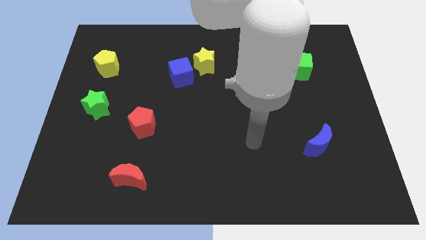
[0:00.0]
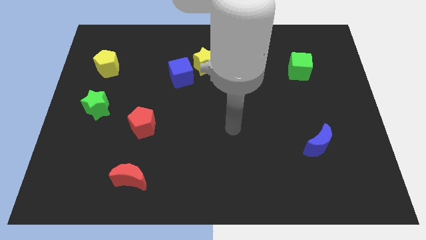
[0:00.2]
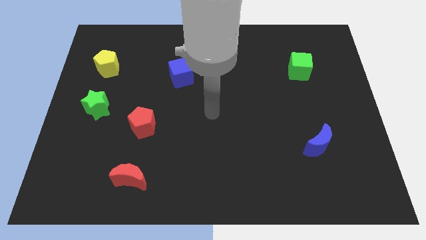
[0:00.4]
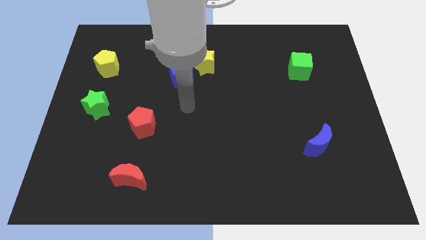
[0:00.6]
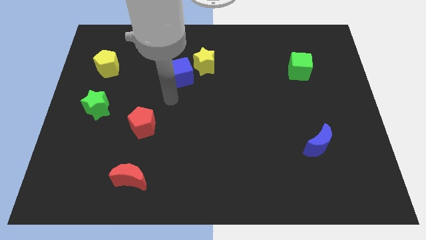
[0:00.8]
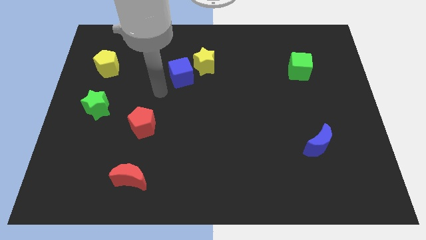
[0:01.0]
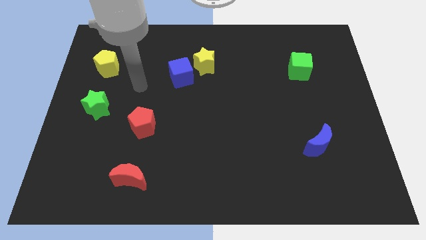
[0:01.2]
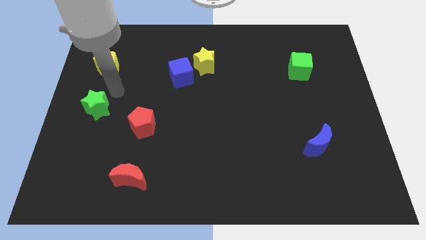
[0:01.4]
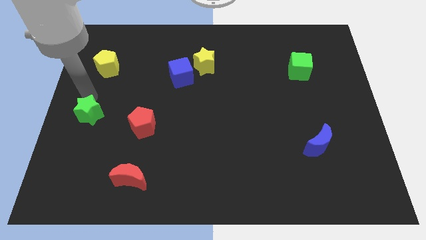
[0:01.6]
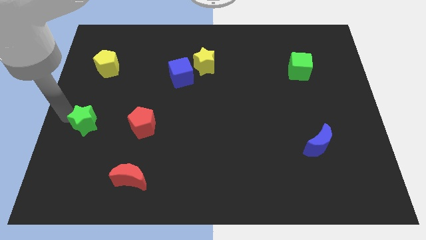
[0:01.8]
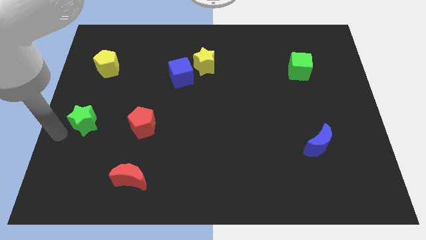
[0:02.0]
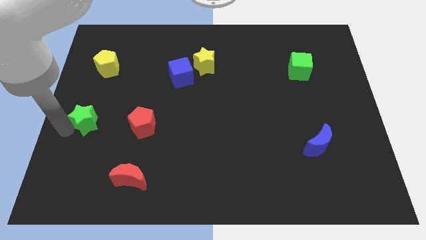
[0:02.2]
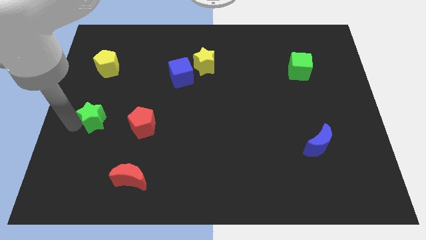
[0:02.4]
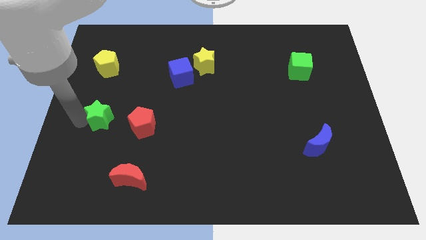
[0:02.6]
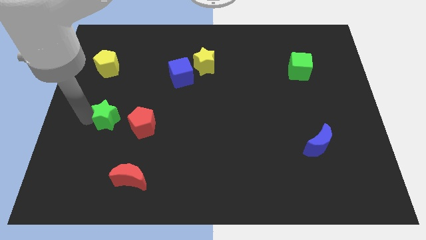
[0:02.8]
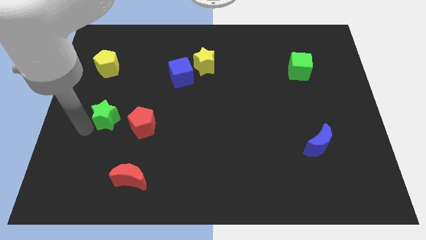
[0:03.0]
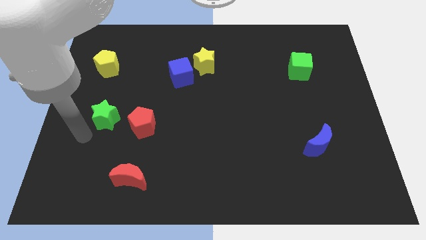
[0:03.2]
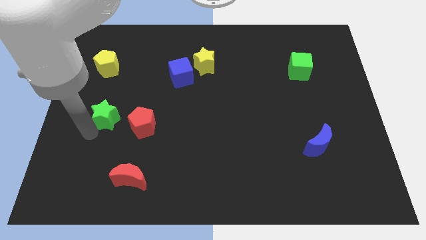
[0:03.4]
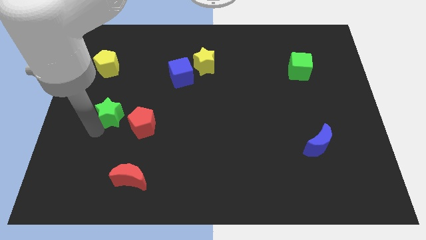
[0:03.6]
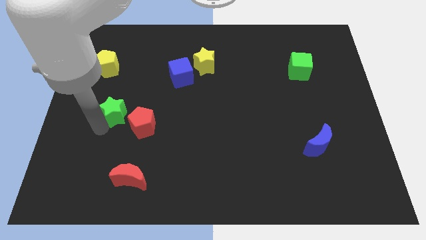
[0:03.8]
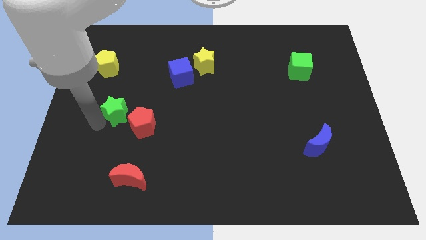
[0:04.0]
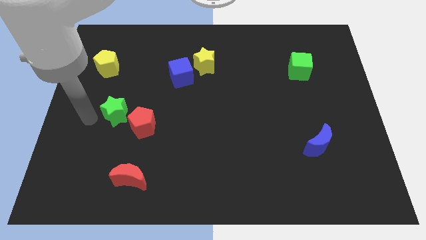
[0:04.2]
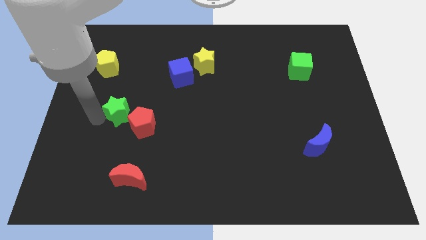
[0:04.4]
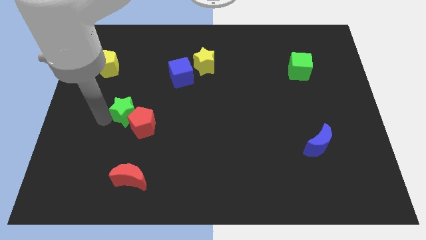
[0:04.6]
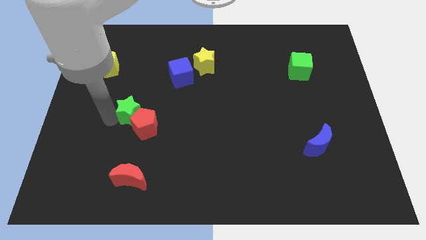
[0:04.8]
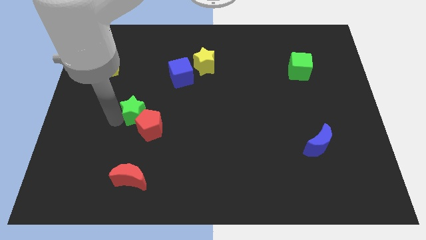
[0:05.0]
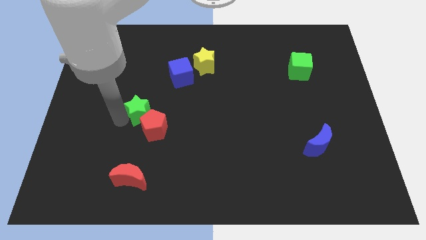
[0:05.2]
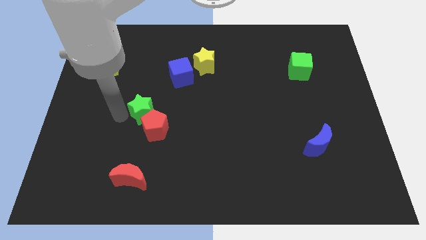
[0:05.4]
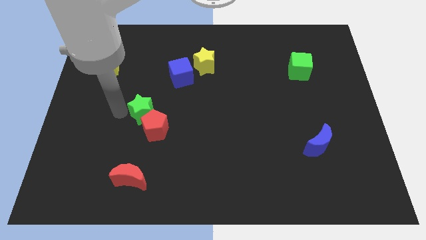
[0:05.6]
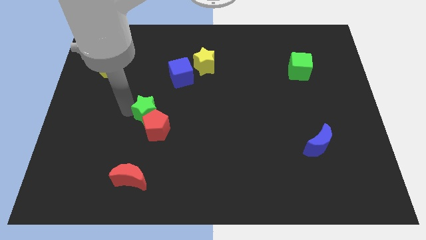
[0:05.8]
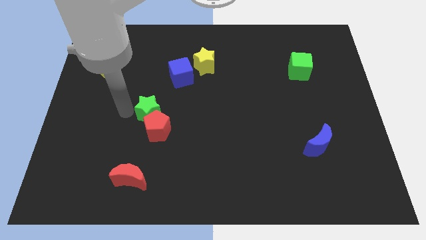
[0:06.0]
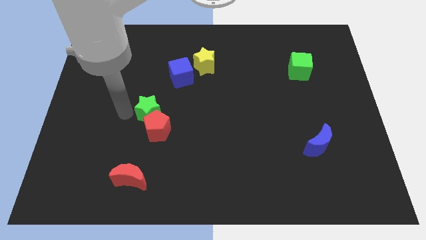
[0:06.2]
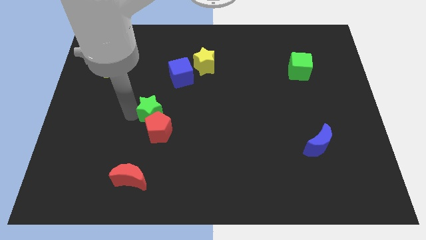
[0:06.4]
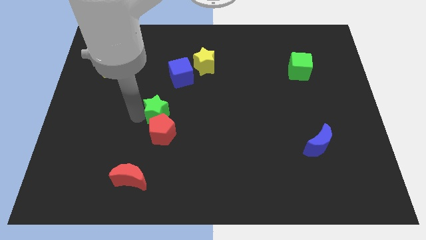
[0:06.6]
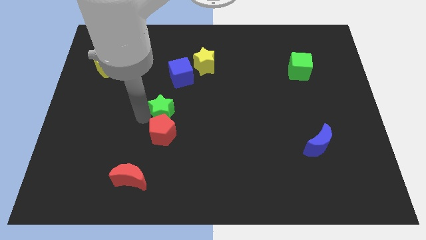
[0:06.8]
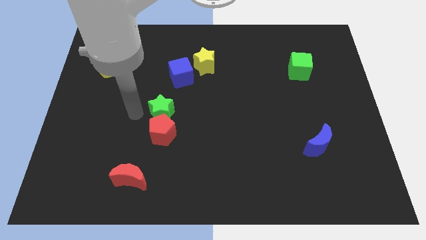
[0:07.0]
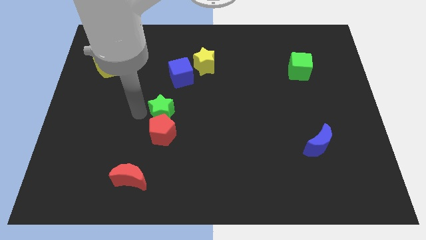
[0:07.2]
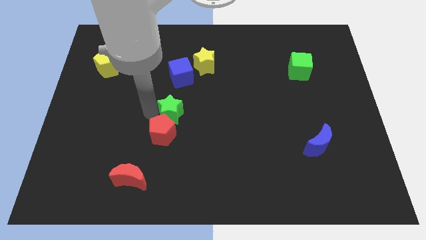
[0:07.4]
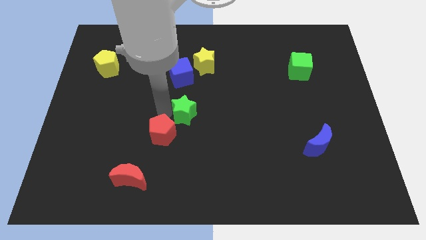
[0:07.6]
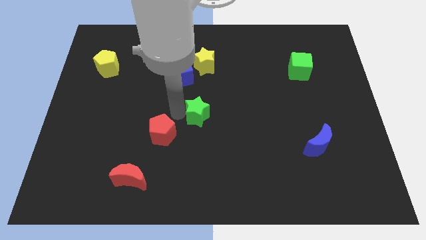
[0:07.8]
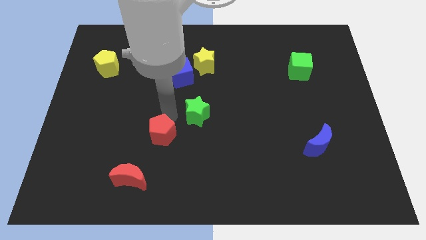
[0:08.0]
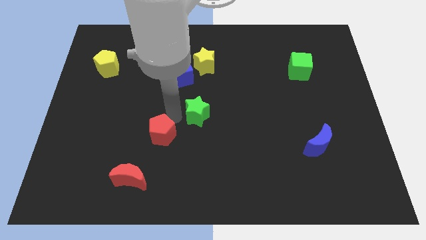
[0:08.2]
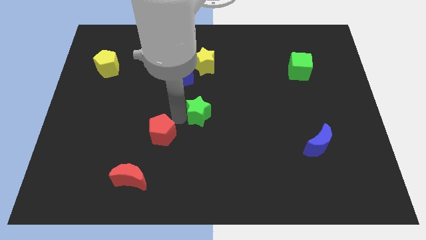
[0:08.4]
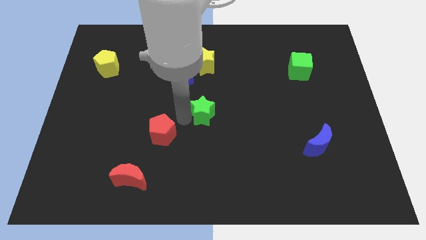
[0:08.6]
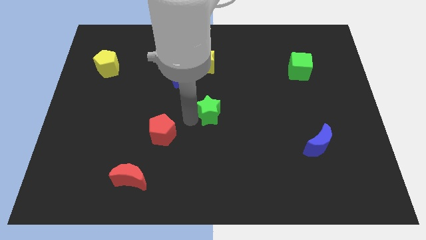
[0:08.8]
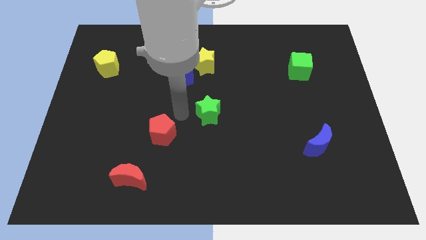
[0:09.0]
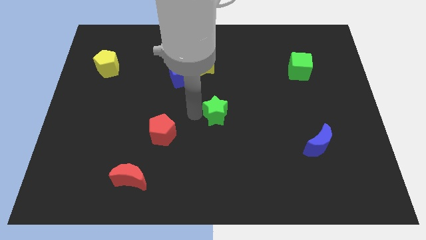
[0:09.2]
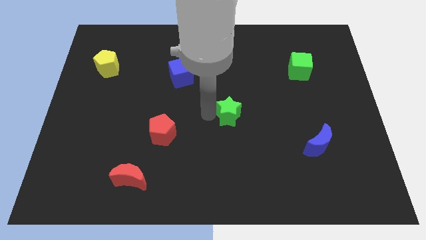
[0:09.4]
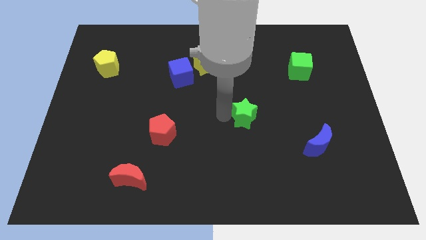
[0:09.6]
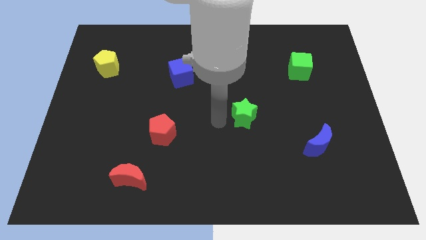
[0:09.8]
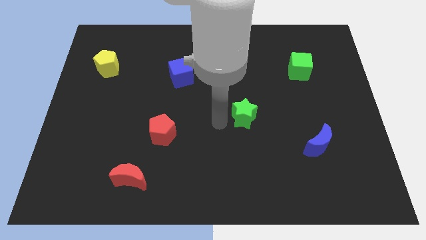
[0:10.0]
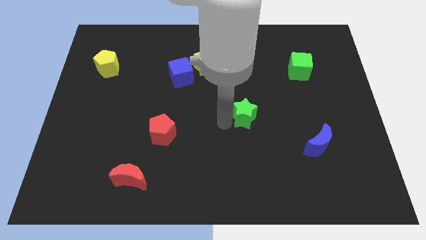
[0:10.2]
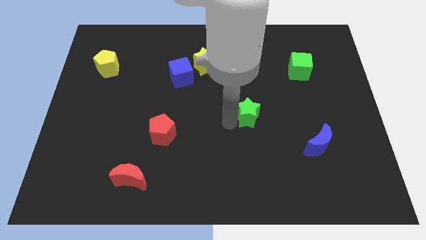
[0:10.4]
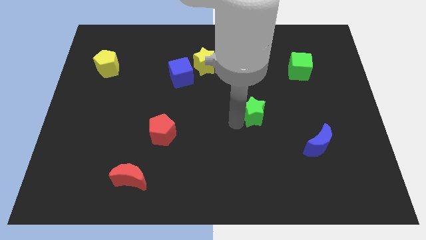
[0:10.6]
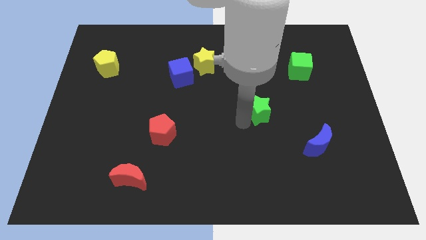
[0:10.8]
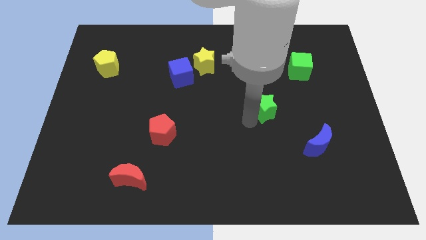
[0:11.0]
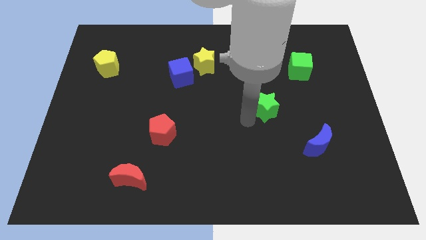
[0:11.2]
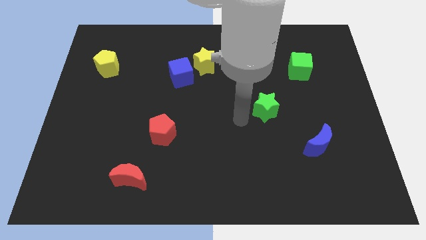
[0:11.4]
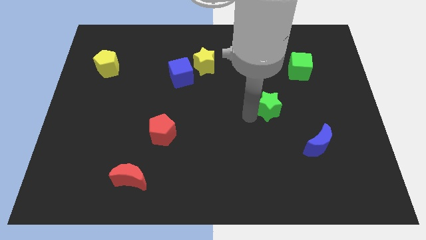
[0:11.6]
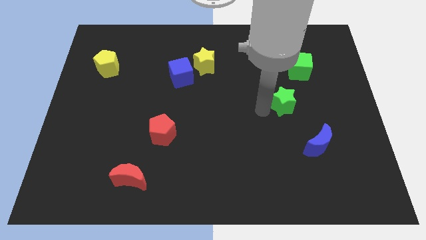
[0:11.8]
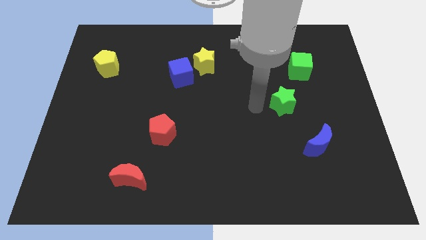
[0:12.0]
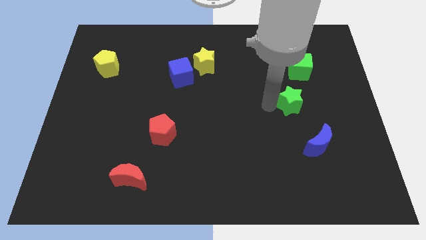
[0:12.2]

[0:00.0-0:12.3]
put the green star below the green cube

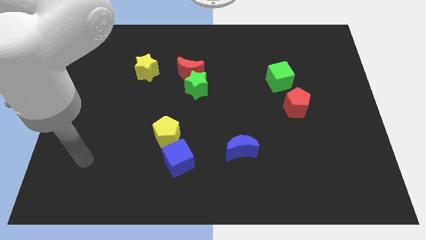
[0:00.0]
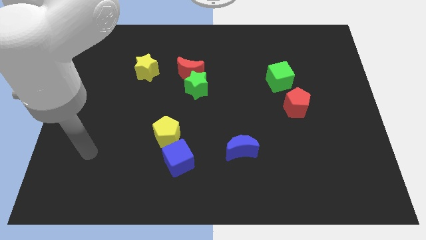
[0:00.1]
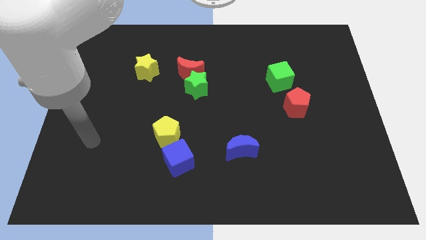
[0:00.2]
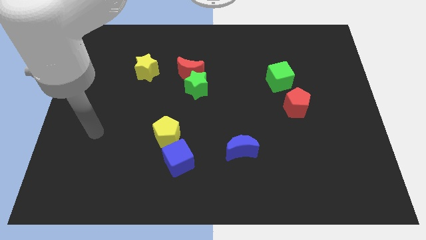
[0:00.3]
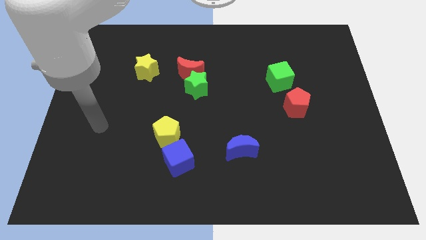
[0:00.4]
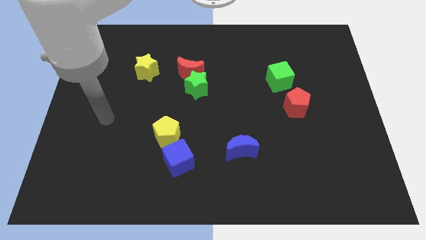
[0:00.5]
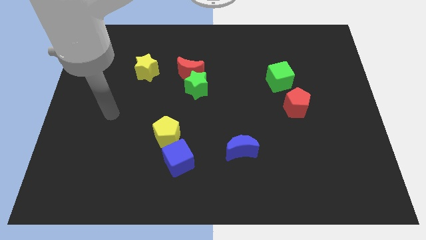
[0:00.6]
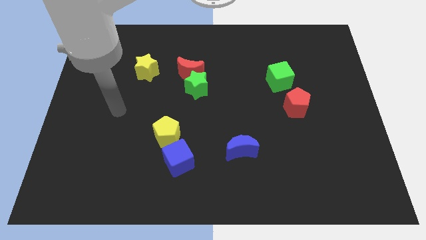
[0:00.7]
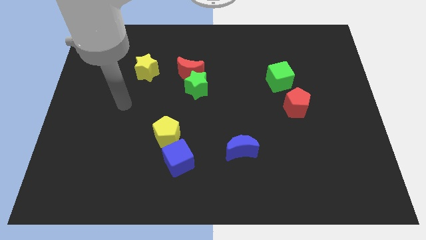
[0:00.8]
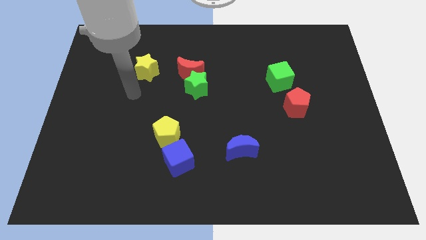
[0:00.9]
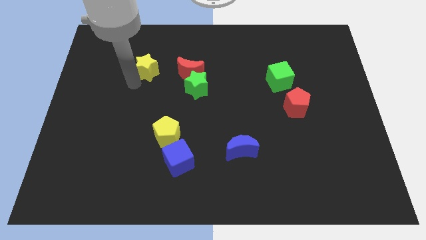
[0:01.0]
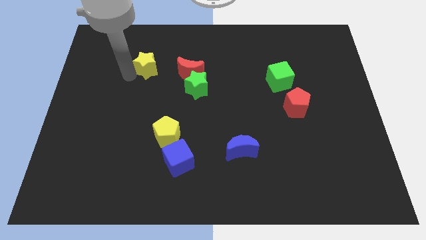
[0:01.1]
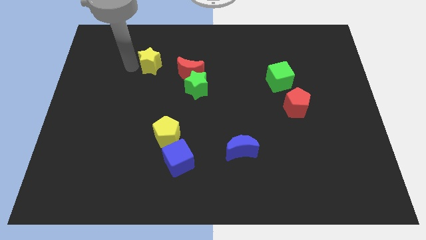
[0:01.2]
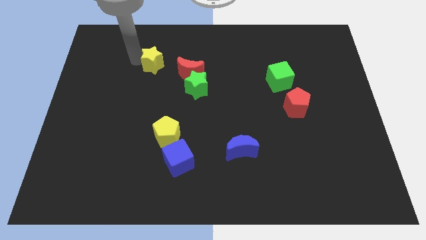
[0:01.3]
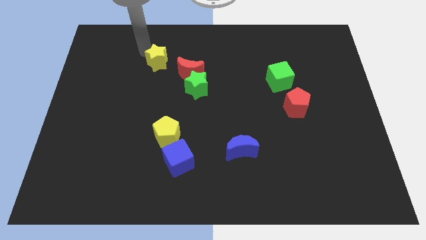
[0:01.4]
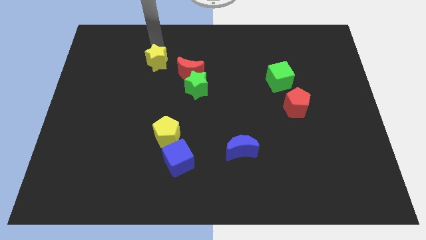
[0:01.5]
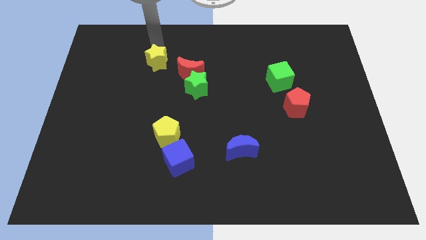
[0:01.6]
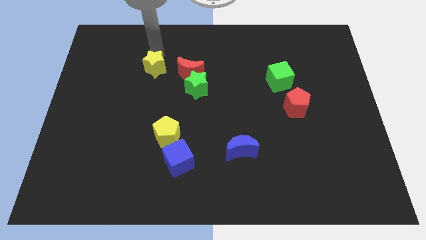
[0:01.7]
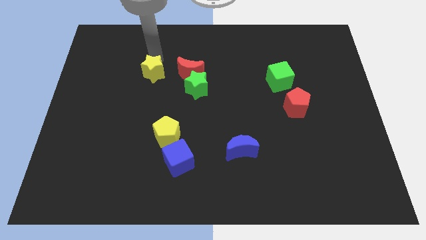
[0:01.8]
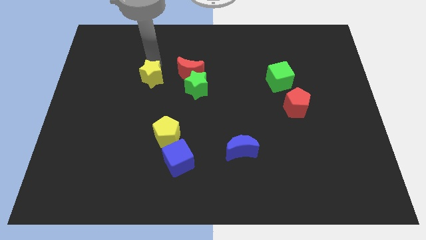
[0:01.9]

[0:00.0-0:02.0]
move the yellow star to the left of the green star
